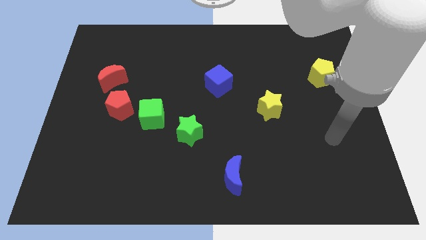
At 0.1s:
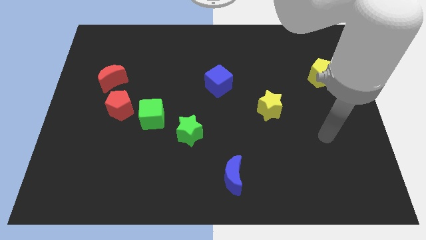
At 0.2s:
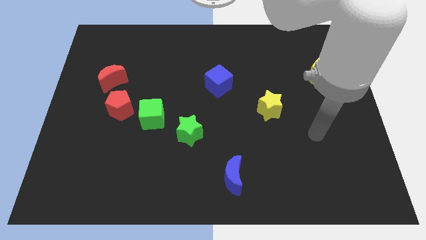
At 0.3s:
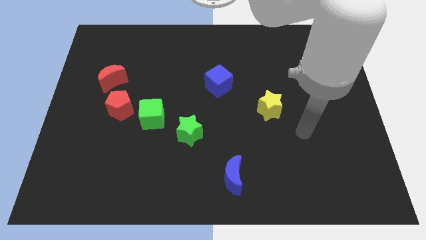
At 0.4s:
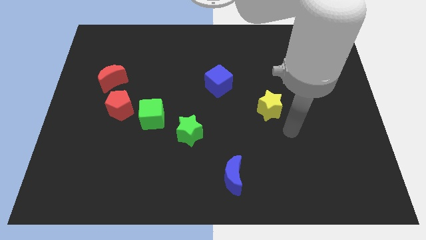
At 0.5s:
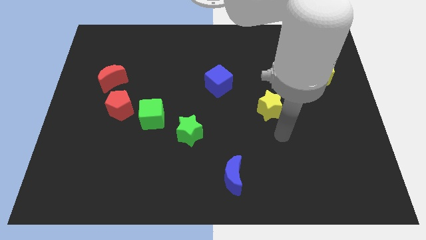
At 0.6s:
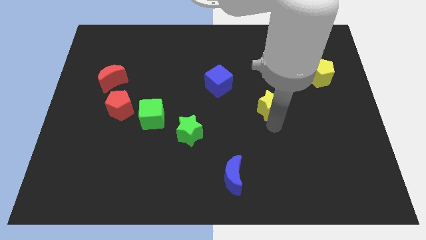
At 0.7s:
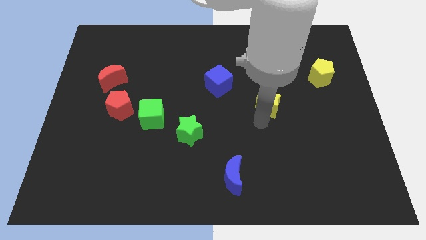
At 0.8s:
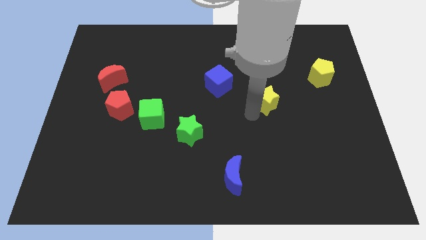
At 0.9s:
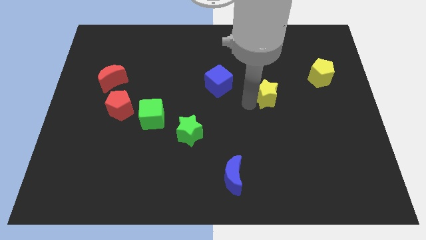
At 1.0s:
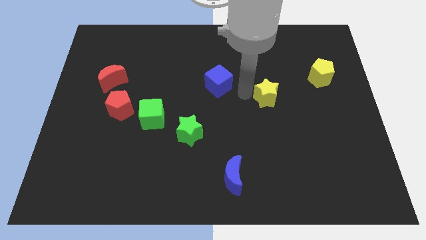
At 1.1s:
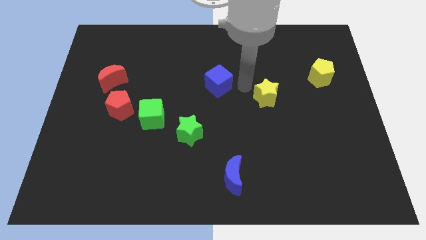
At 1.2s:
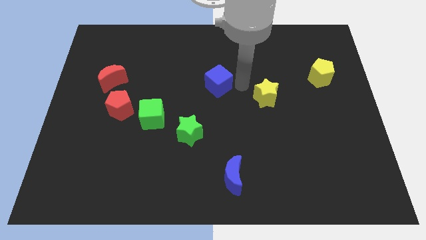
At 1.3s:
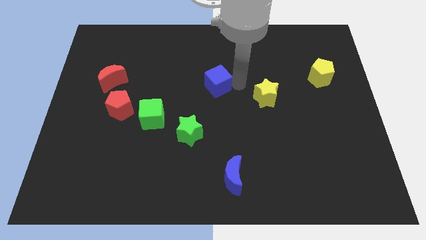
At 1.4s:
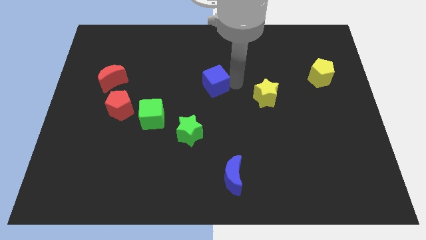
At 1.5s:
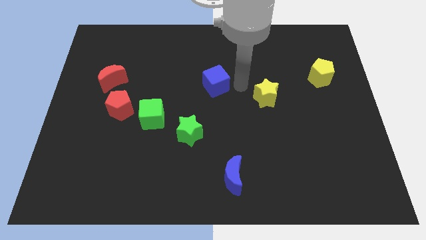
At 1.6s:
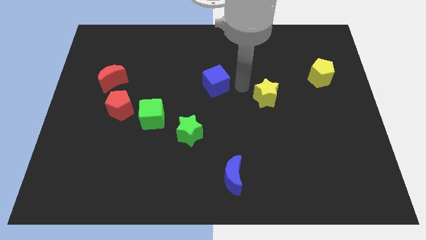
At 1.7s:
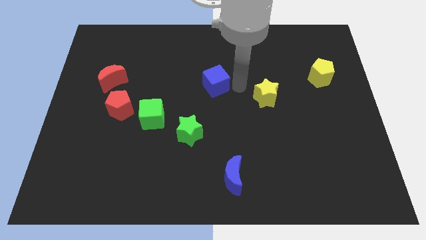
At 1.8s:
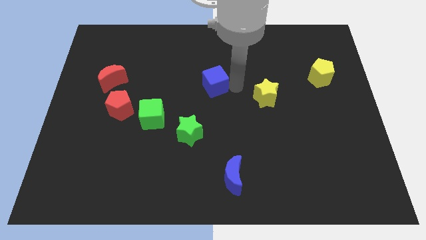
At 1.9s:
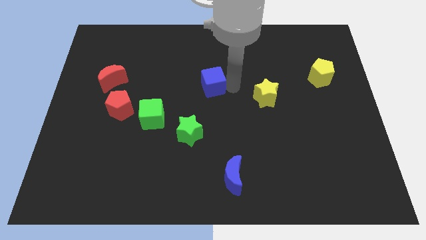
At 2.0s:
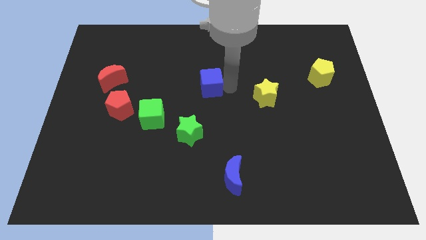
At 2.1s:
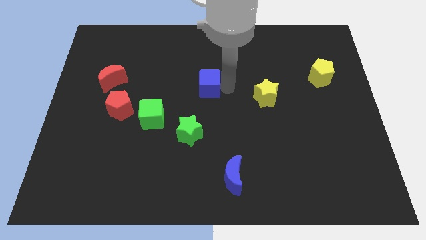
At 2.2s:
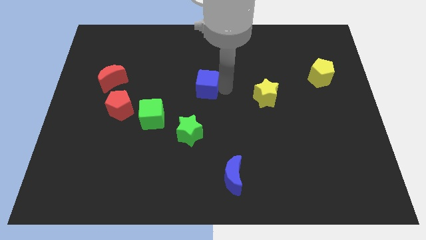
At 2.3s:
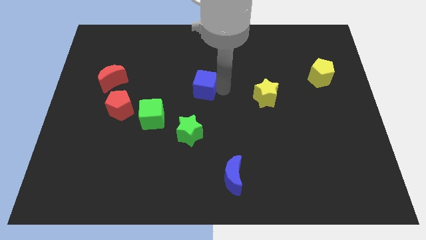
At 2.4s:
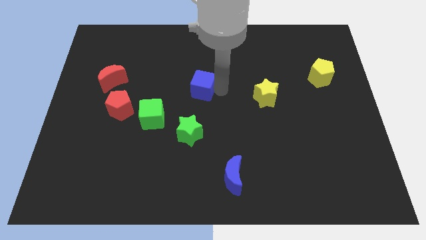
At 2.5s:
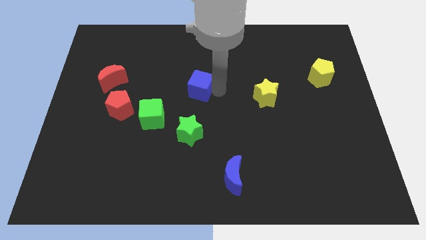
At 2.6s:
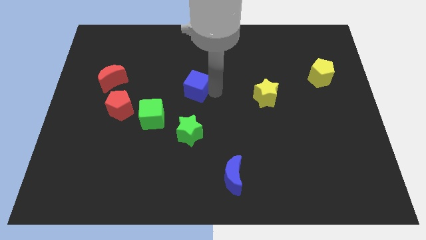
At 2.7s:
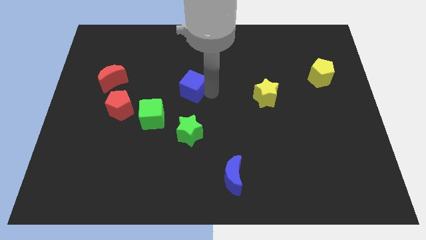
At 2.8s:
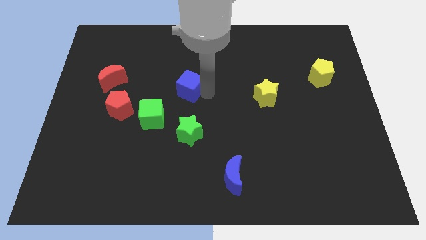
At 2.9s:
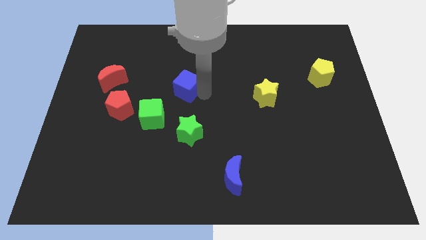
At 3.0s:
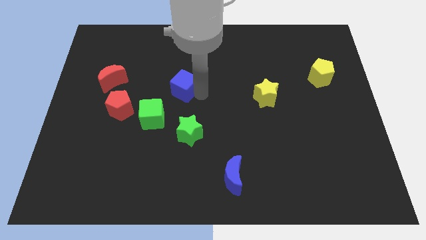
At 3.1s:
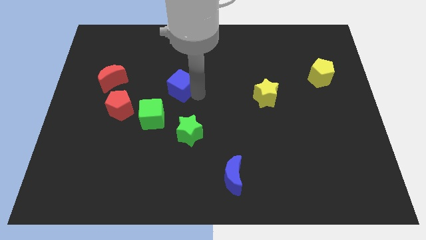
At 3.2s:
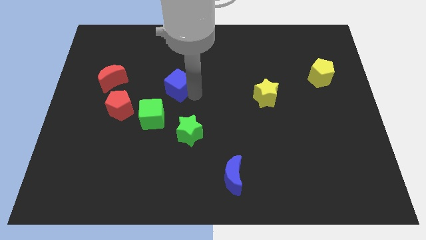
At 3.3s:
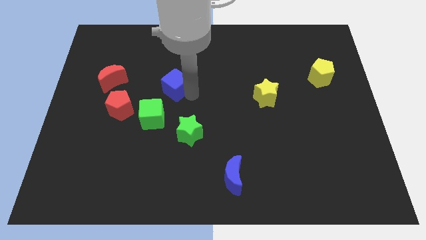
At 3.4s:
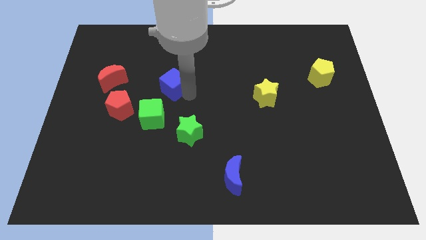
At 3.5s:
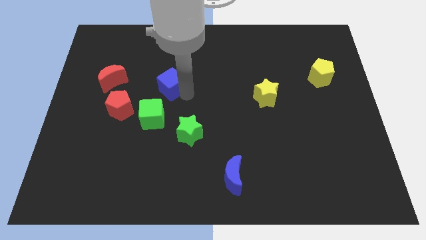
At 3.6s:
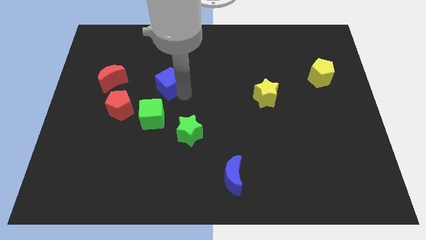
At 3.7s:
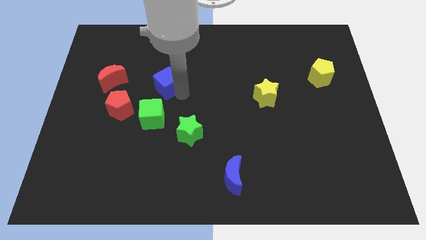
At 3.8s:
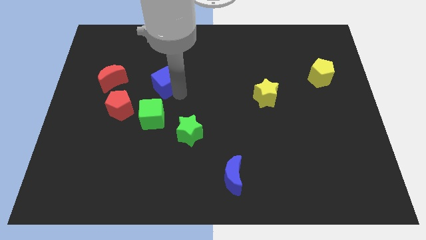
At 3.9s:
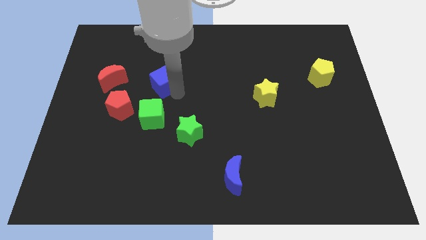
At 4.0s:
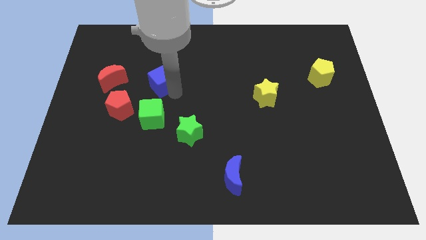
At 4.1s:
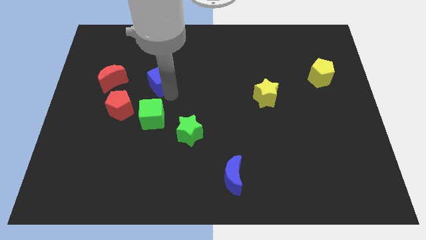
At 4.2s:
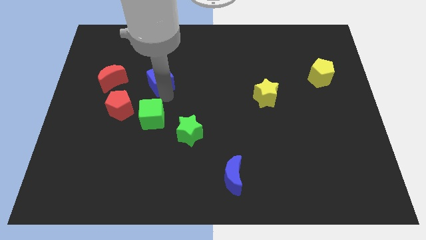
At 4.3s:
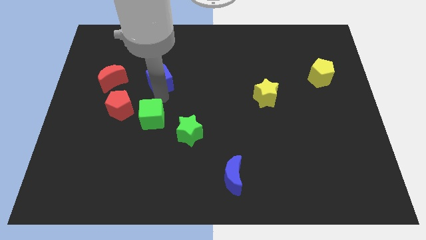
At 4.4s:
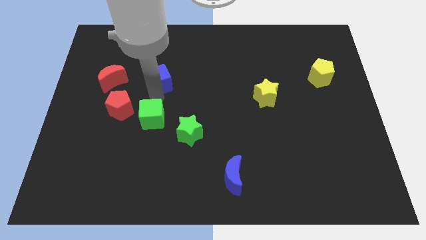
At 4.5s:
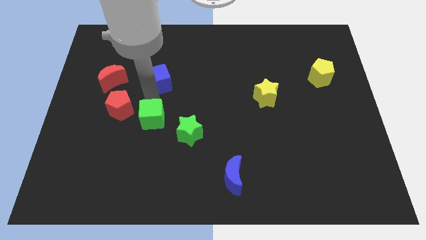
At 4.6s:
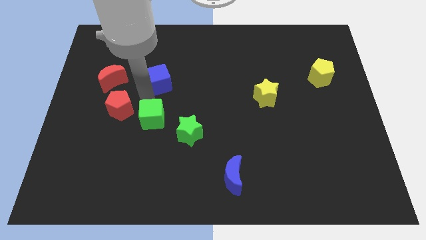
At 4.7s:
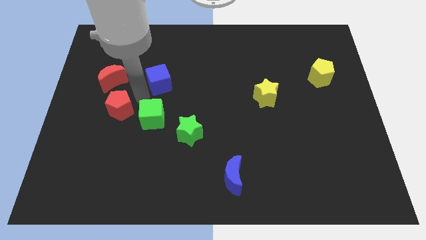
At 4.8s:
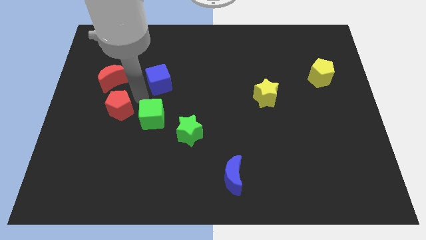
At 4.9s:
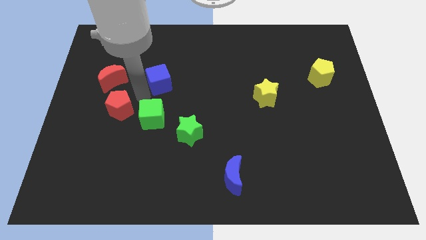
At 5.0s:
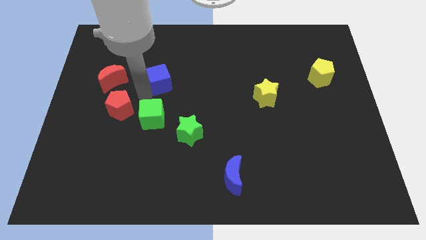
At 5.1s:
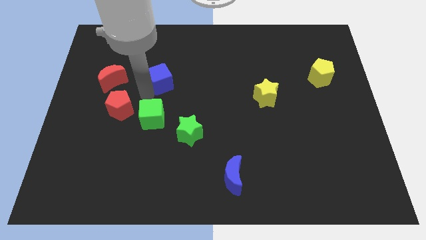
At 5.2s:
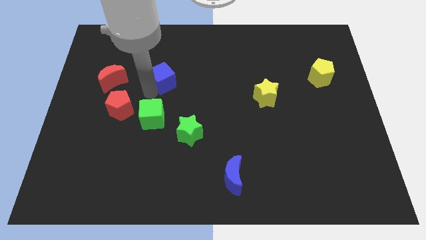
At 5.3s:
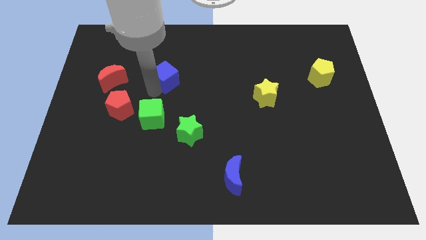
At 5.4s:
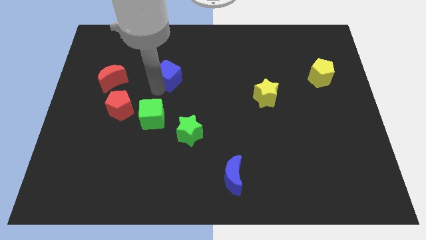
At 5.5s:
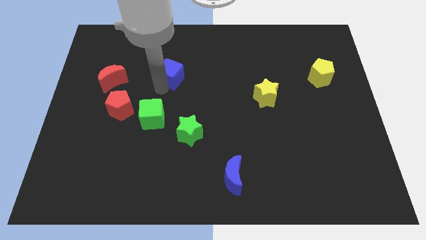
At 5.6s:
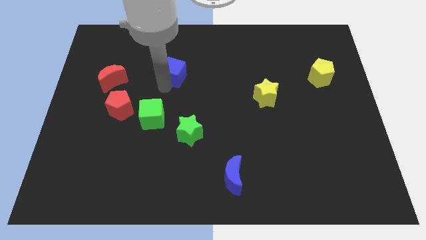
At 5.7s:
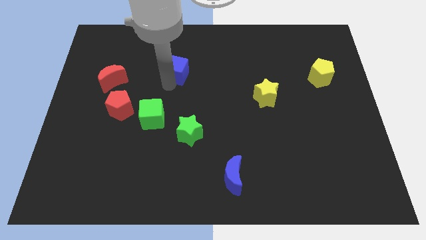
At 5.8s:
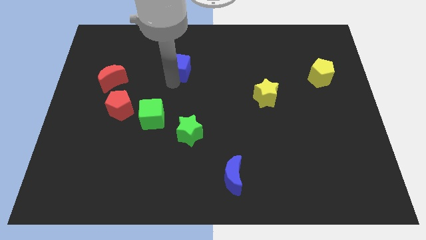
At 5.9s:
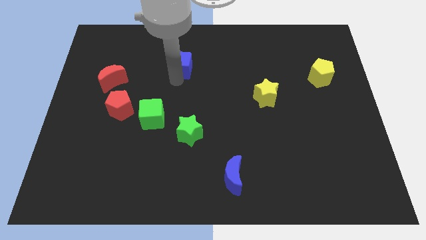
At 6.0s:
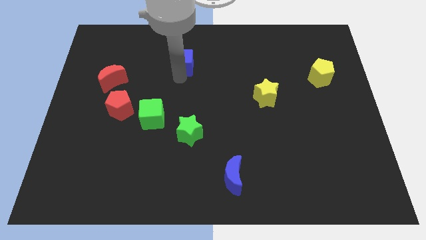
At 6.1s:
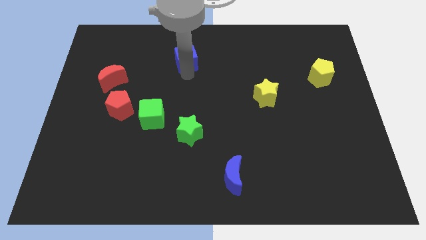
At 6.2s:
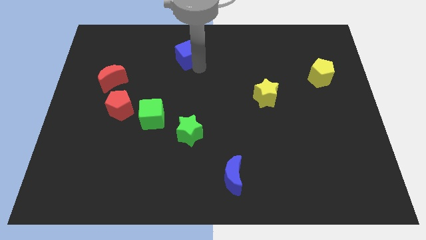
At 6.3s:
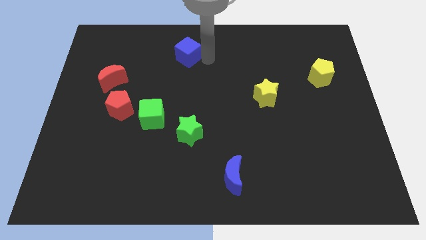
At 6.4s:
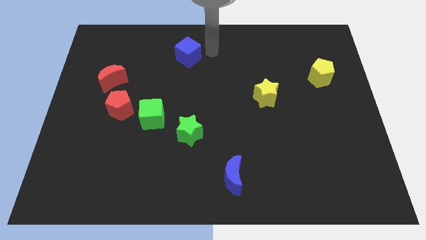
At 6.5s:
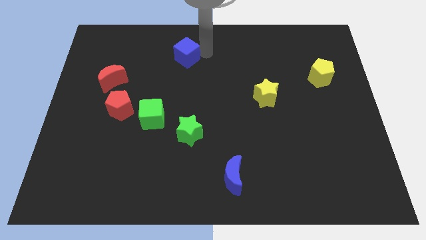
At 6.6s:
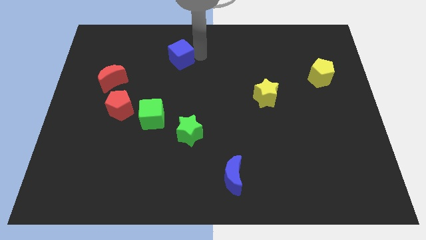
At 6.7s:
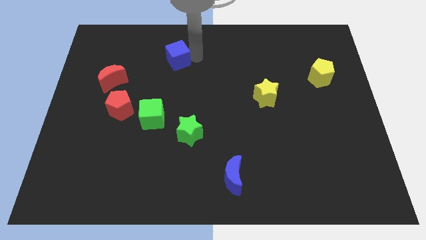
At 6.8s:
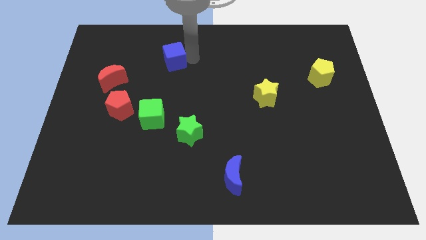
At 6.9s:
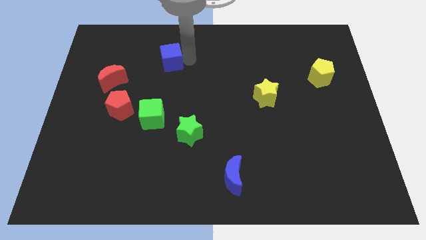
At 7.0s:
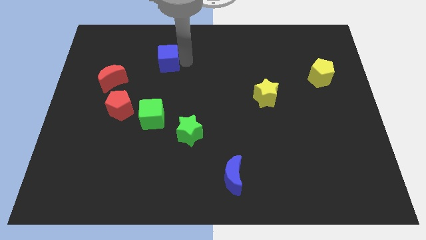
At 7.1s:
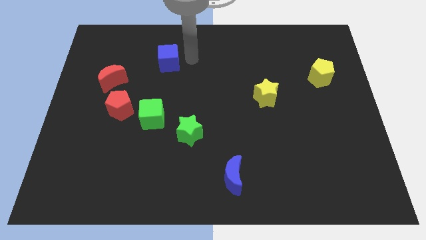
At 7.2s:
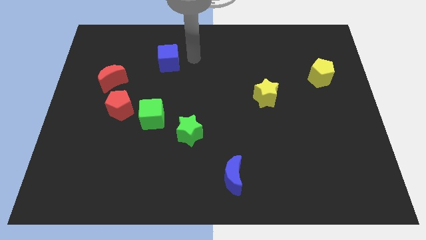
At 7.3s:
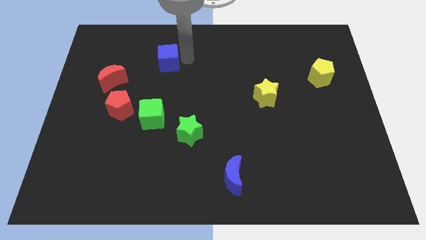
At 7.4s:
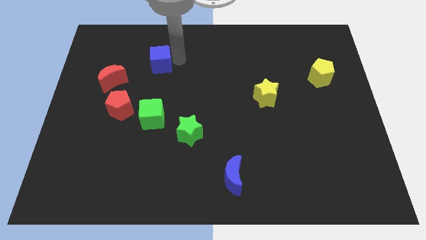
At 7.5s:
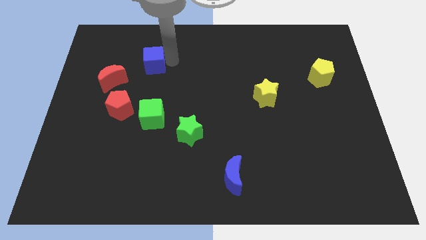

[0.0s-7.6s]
move the blue cube diagonally up and to the right of the red moon
